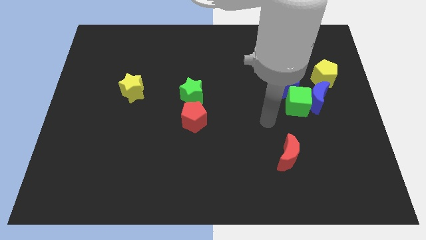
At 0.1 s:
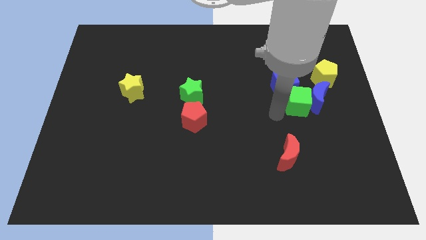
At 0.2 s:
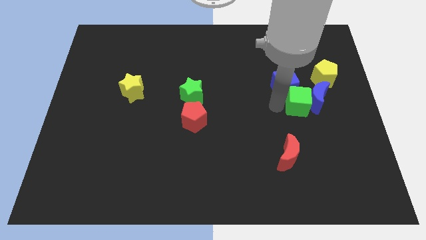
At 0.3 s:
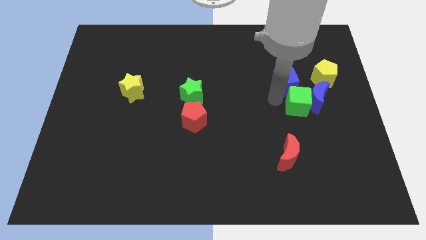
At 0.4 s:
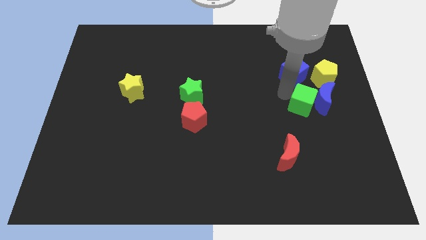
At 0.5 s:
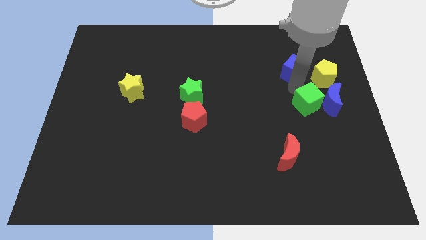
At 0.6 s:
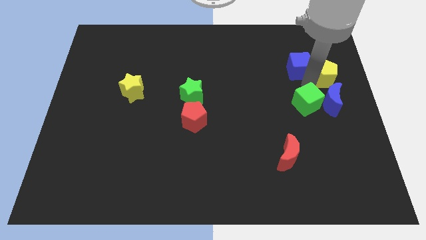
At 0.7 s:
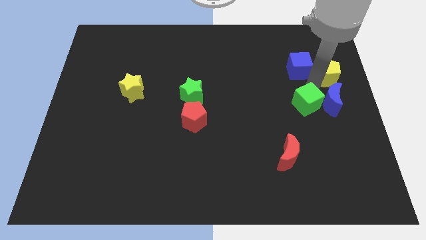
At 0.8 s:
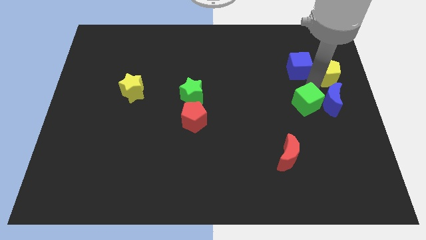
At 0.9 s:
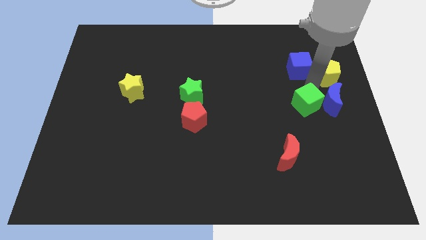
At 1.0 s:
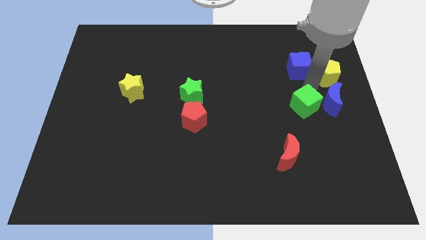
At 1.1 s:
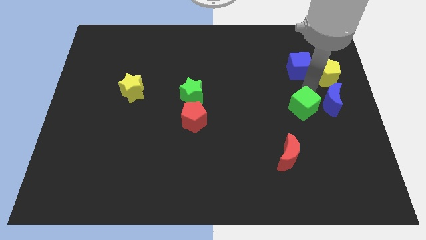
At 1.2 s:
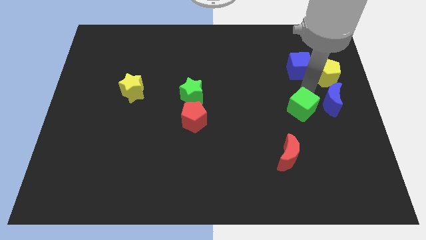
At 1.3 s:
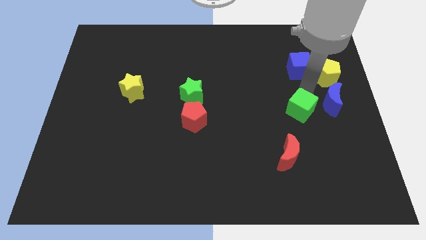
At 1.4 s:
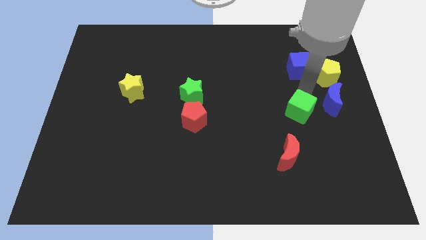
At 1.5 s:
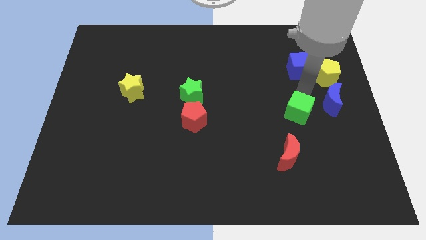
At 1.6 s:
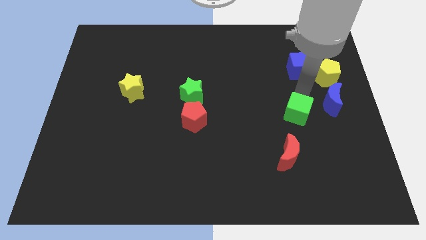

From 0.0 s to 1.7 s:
pull the green cube apart from the blue moon and blue cube

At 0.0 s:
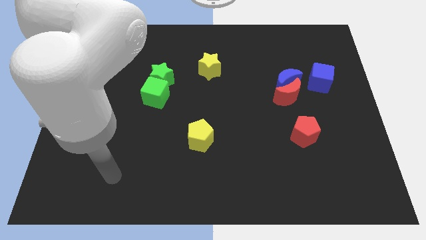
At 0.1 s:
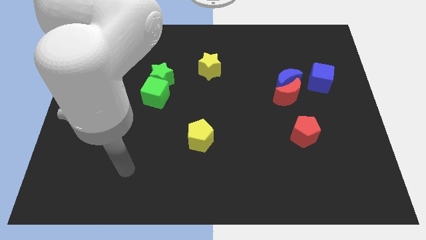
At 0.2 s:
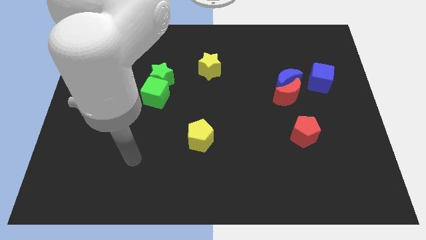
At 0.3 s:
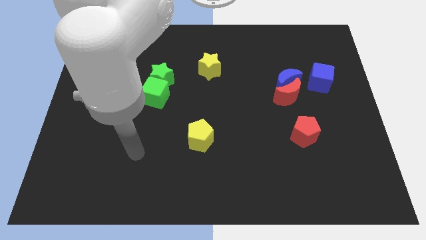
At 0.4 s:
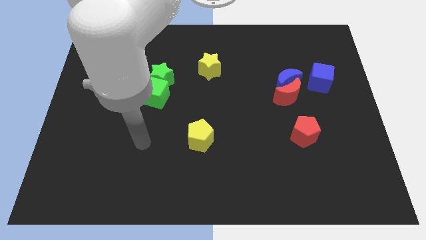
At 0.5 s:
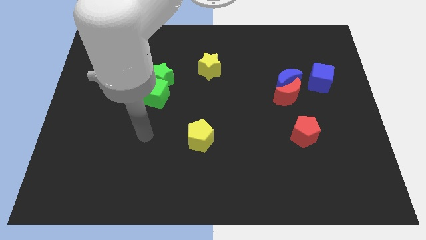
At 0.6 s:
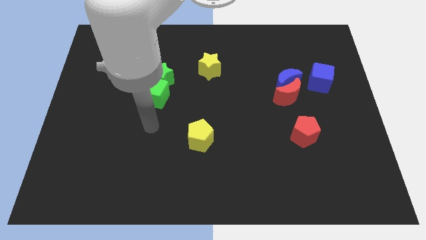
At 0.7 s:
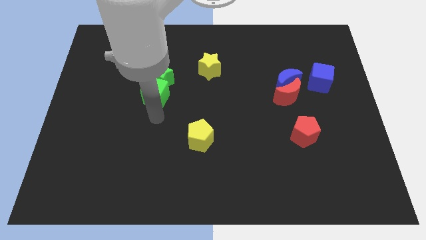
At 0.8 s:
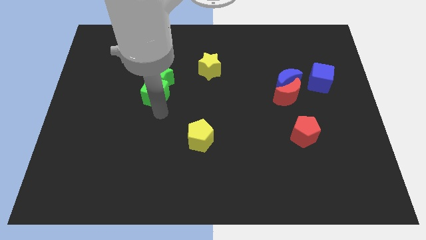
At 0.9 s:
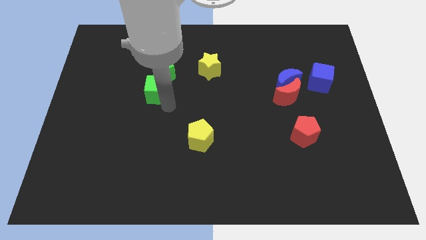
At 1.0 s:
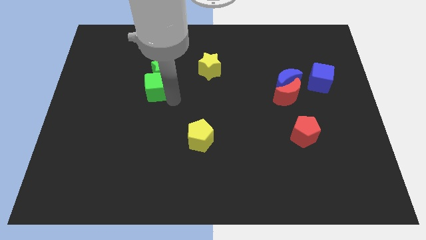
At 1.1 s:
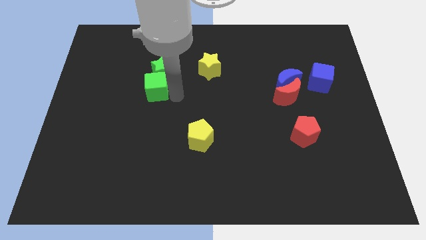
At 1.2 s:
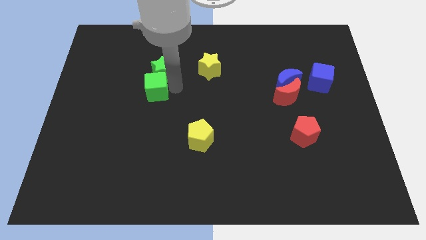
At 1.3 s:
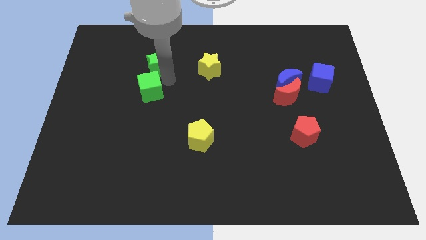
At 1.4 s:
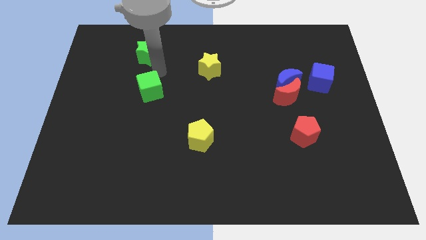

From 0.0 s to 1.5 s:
pull the green cube apart from the green star

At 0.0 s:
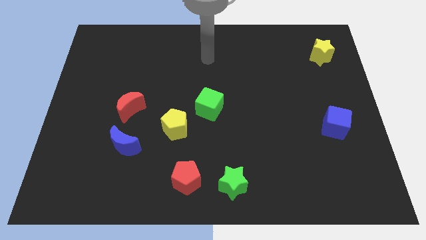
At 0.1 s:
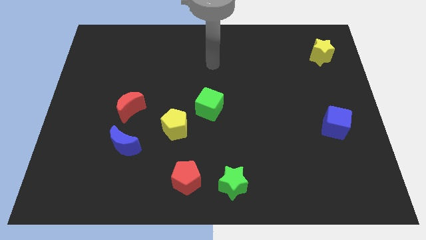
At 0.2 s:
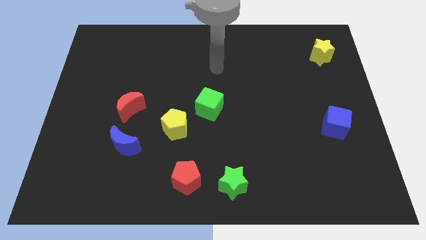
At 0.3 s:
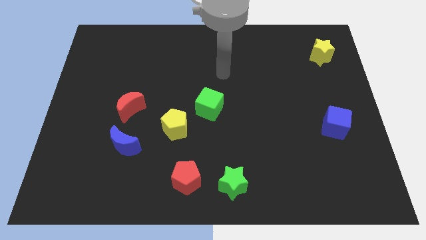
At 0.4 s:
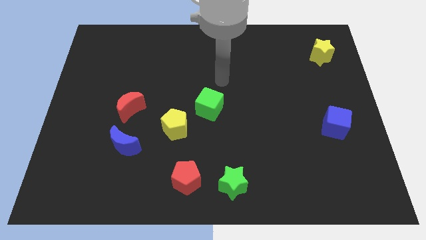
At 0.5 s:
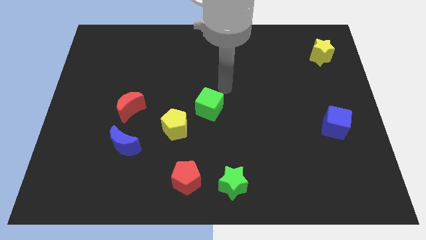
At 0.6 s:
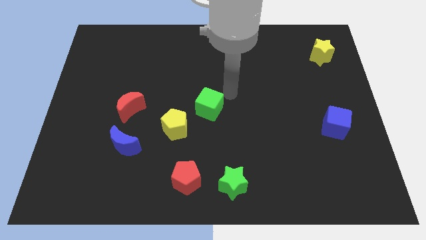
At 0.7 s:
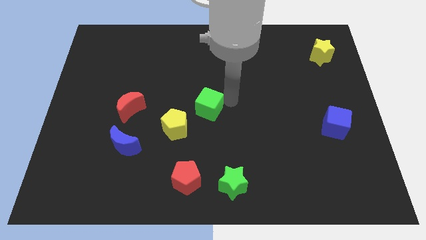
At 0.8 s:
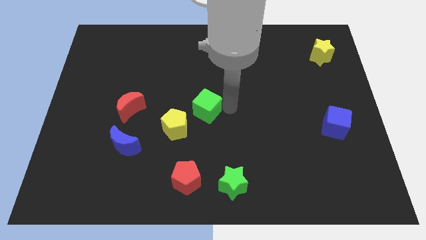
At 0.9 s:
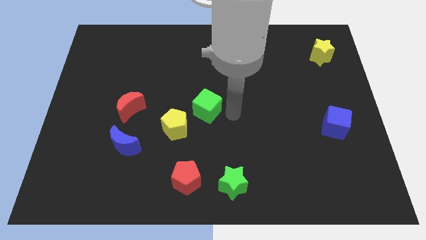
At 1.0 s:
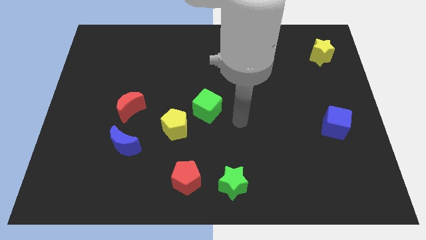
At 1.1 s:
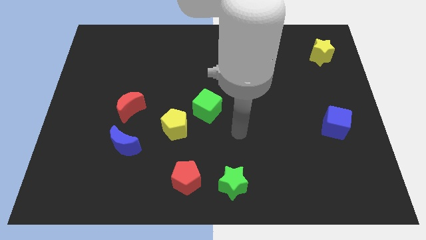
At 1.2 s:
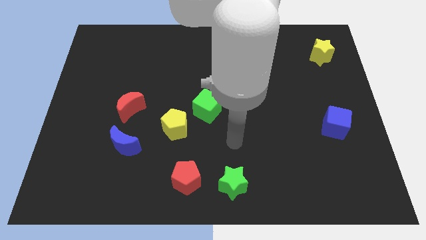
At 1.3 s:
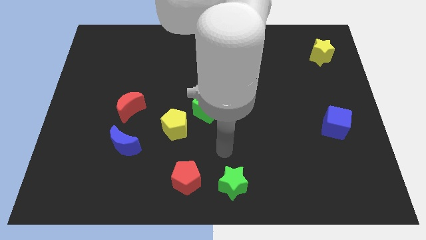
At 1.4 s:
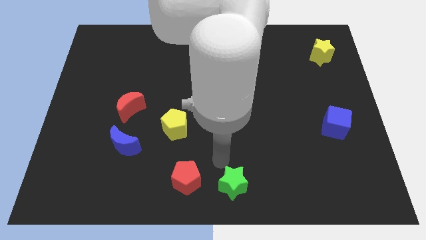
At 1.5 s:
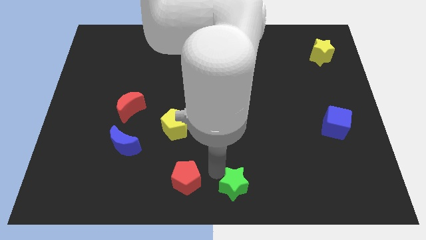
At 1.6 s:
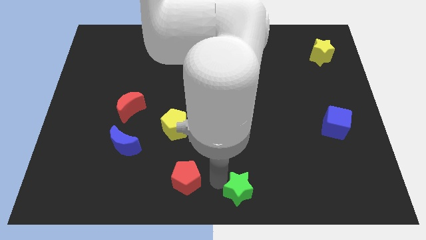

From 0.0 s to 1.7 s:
move the red pentagon away from the green star

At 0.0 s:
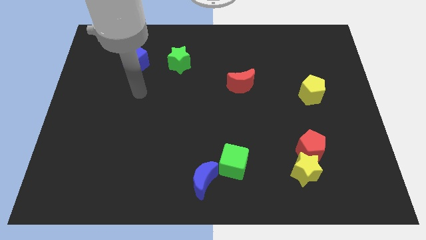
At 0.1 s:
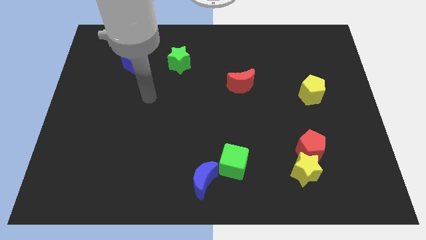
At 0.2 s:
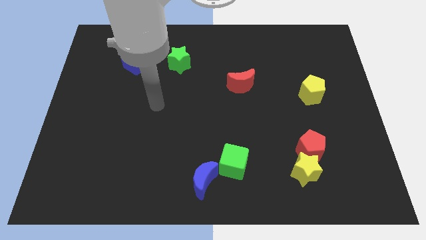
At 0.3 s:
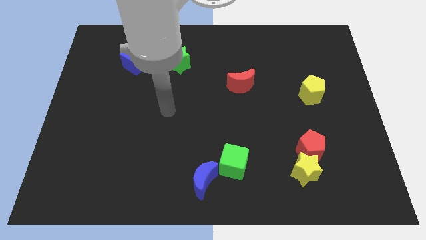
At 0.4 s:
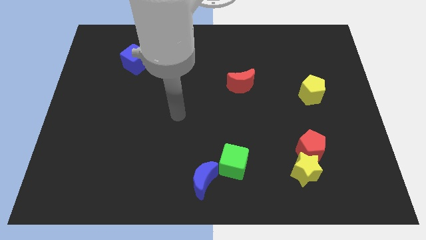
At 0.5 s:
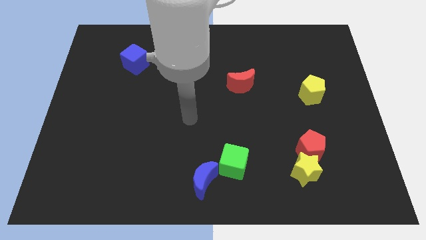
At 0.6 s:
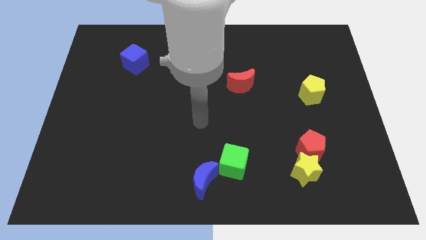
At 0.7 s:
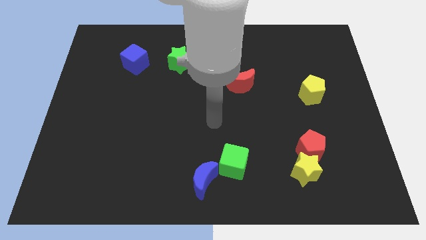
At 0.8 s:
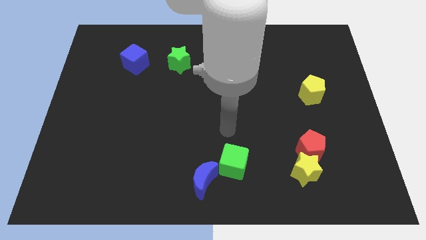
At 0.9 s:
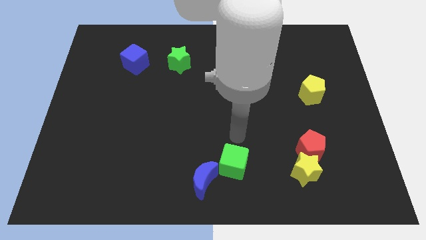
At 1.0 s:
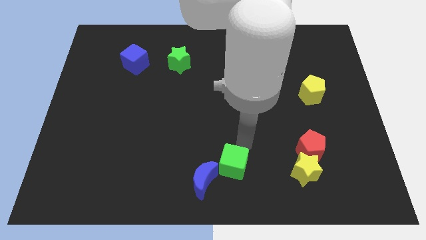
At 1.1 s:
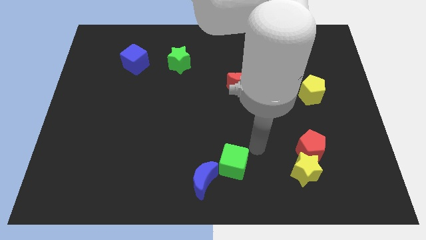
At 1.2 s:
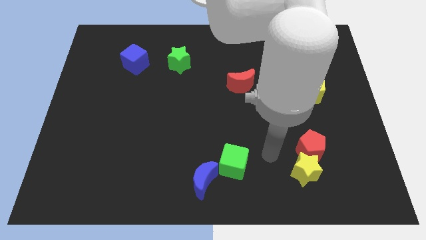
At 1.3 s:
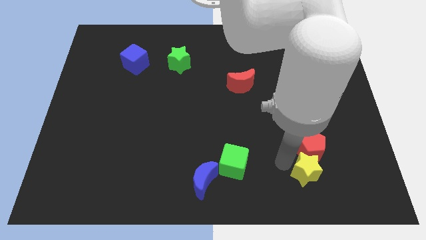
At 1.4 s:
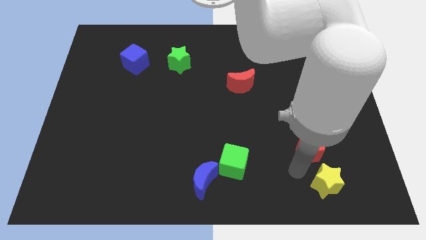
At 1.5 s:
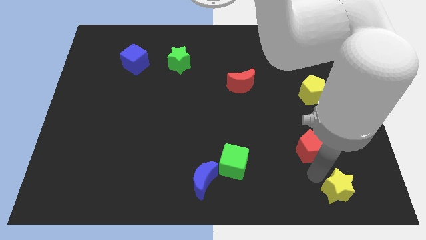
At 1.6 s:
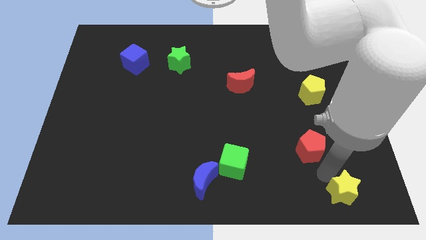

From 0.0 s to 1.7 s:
pull the red pentagon apart from the yellow star

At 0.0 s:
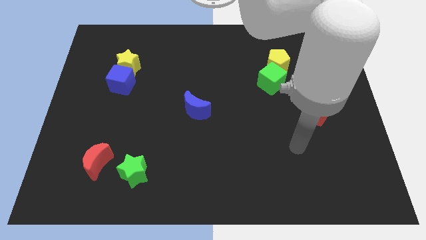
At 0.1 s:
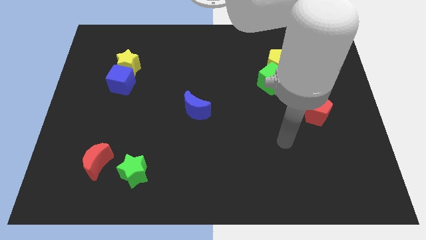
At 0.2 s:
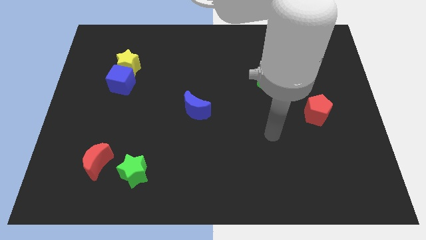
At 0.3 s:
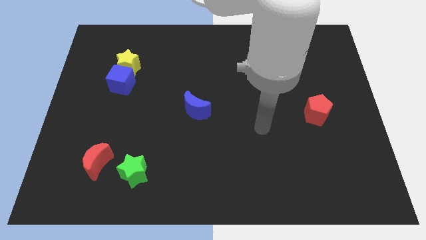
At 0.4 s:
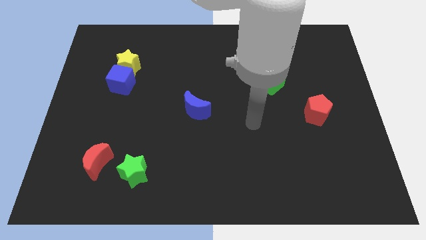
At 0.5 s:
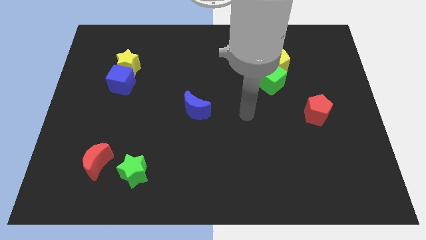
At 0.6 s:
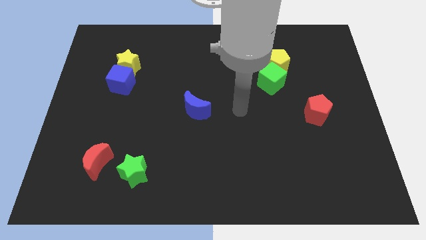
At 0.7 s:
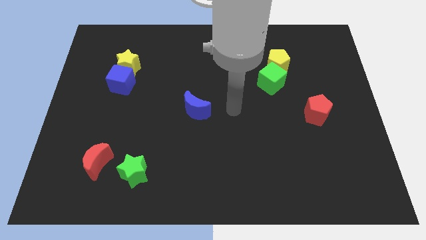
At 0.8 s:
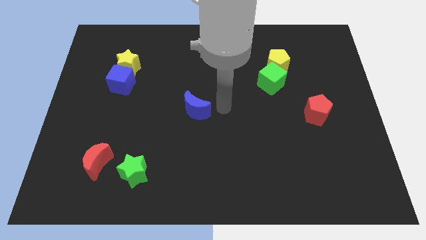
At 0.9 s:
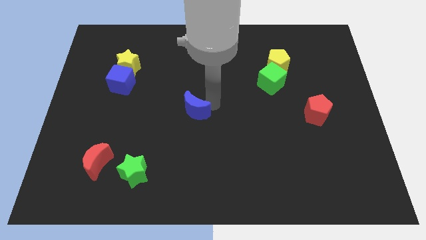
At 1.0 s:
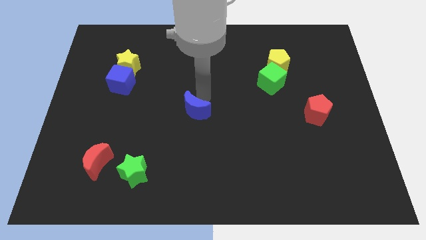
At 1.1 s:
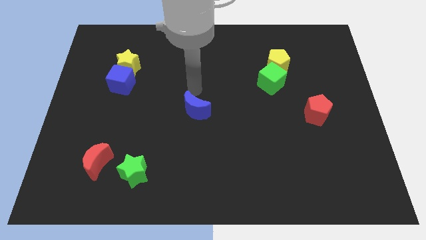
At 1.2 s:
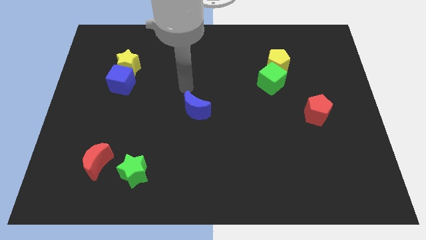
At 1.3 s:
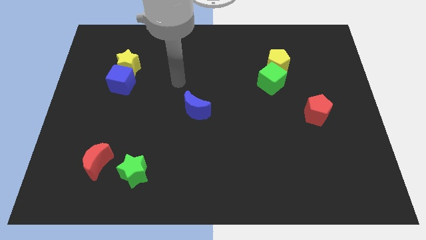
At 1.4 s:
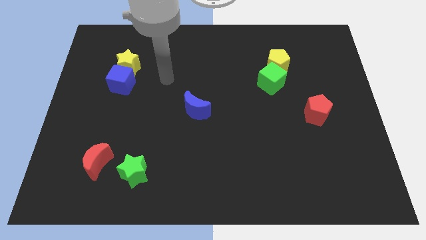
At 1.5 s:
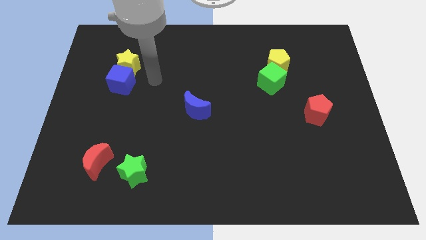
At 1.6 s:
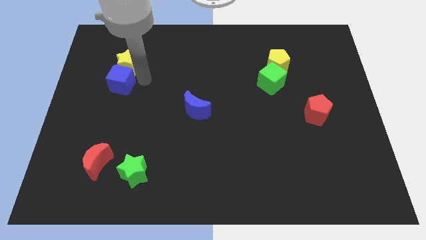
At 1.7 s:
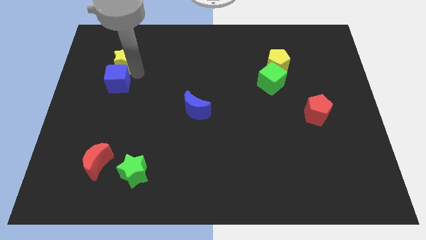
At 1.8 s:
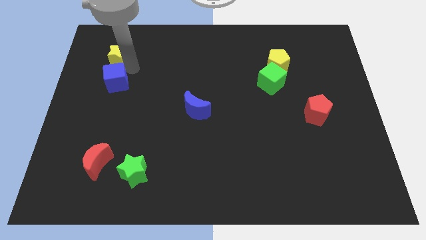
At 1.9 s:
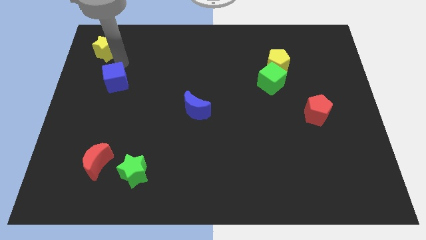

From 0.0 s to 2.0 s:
move the blue cube away from the yellow star

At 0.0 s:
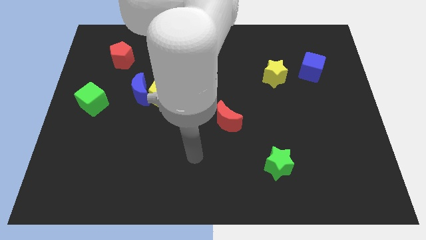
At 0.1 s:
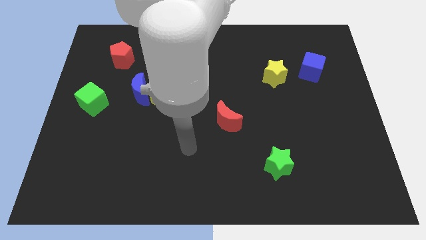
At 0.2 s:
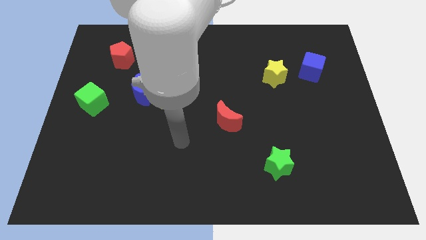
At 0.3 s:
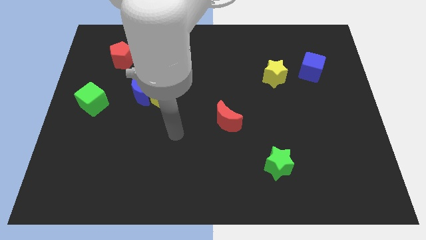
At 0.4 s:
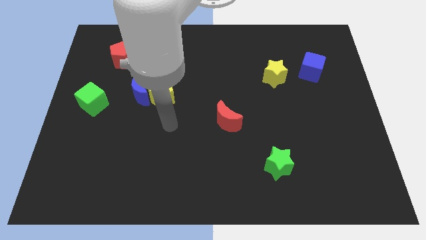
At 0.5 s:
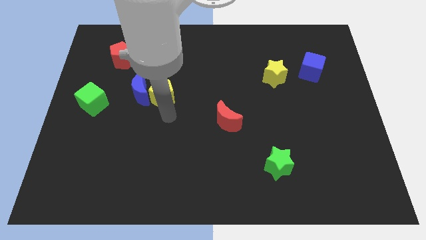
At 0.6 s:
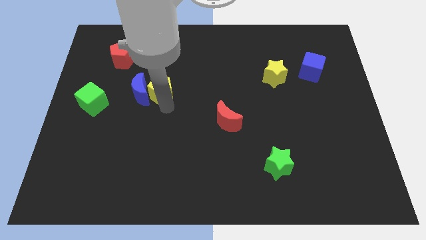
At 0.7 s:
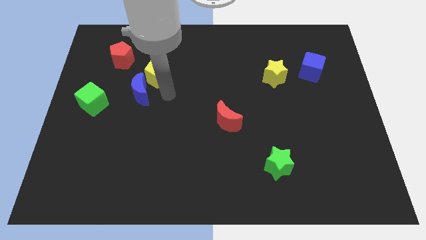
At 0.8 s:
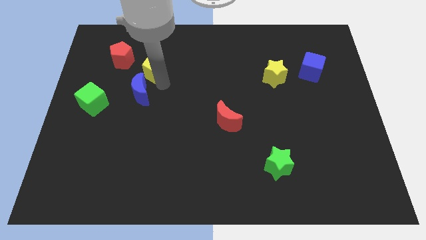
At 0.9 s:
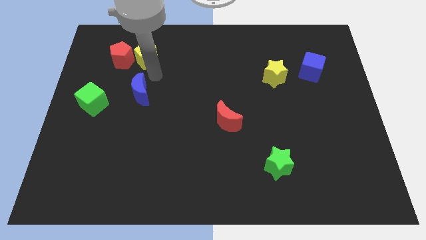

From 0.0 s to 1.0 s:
separate the blue moon from the yellow pentagon
